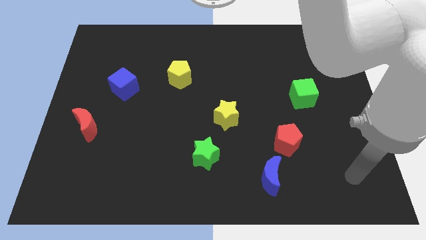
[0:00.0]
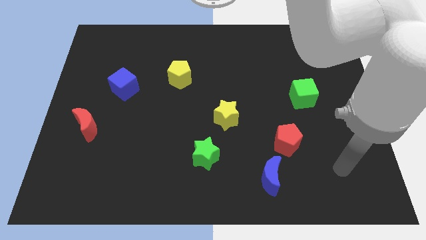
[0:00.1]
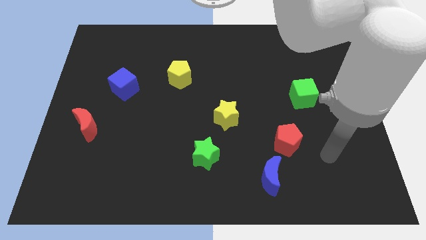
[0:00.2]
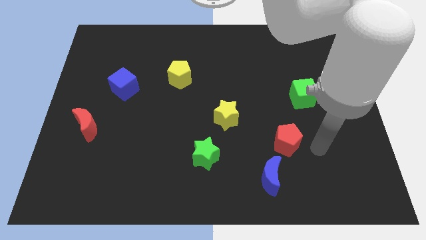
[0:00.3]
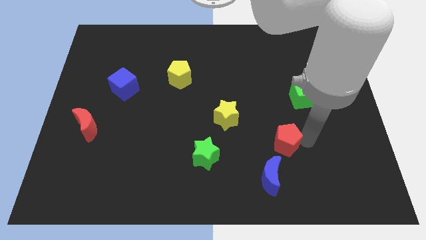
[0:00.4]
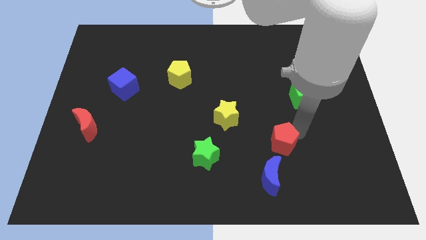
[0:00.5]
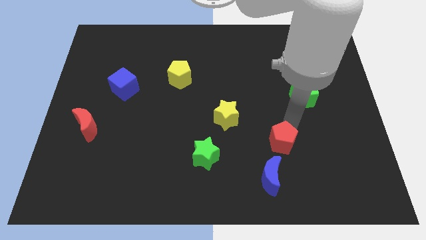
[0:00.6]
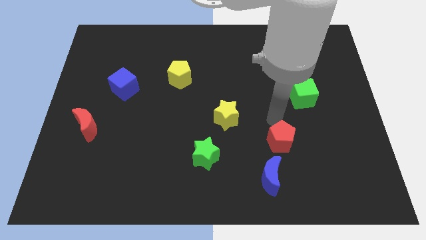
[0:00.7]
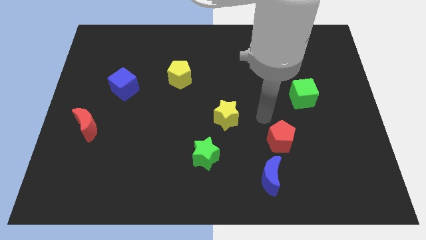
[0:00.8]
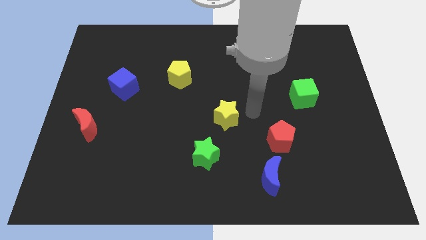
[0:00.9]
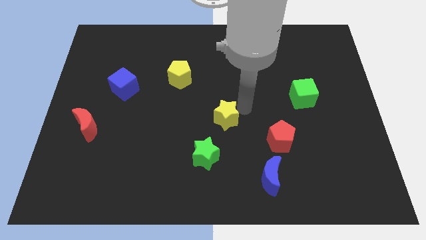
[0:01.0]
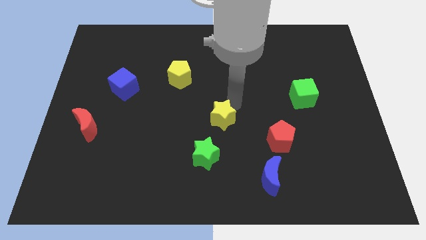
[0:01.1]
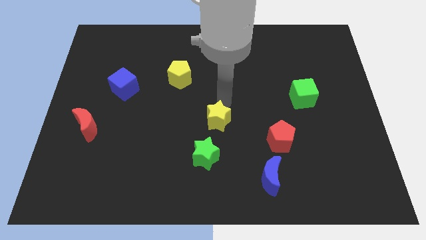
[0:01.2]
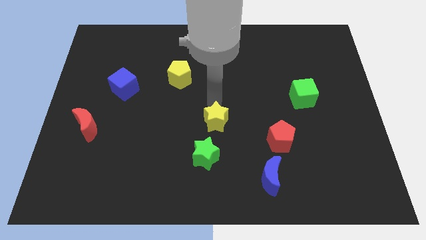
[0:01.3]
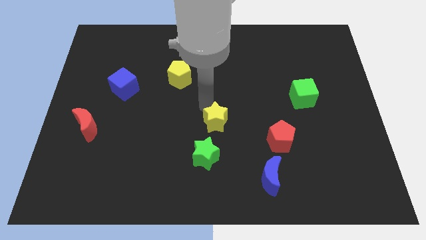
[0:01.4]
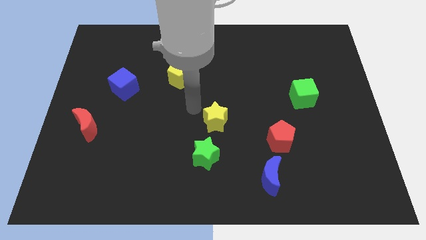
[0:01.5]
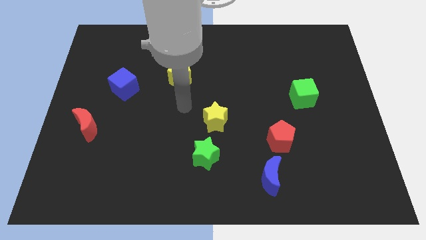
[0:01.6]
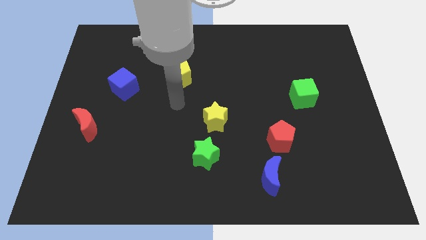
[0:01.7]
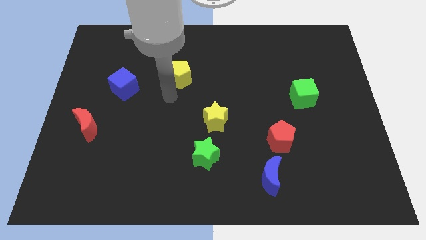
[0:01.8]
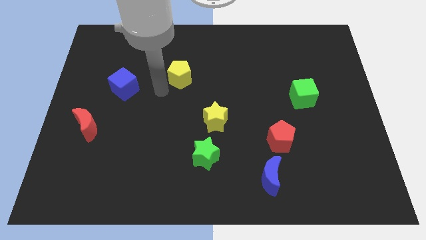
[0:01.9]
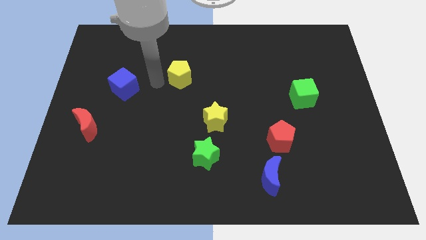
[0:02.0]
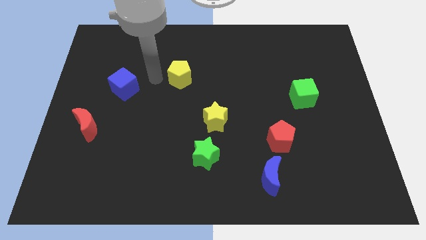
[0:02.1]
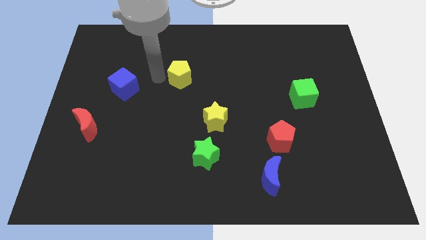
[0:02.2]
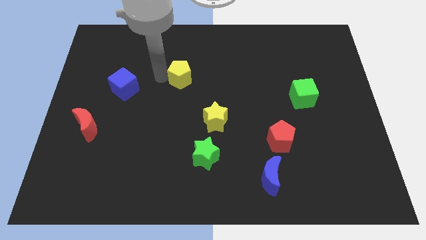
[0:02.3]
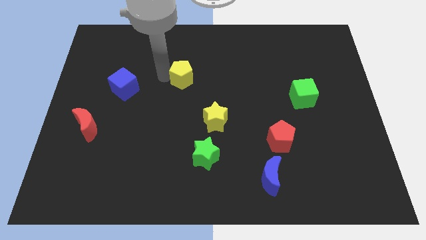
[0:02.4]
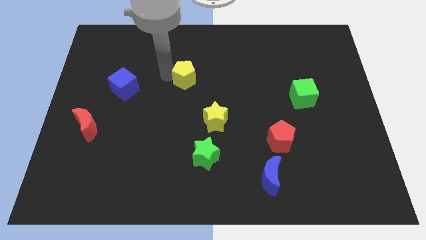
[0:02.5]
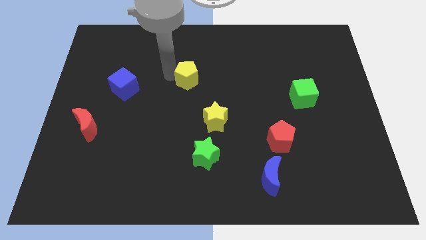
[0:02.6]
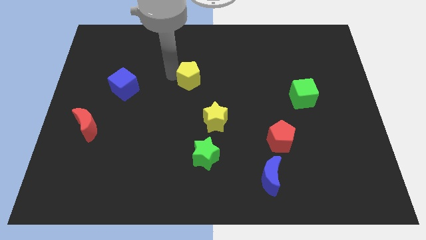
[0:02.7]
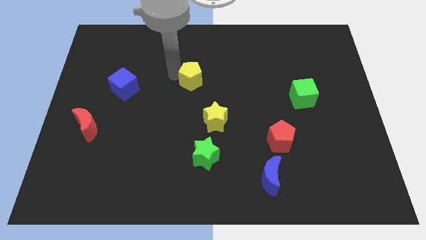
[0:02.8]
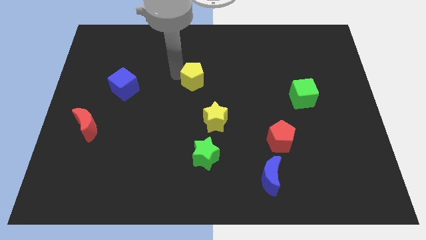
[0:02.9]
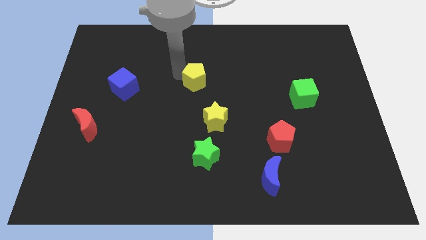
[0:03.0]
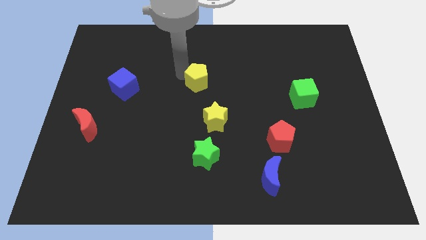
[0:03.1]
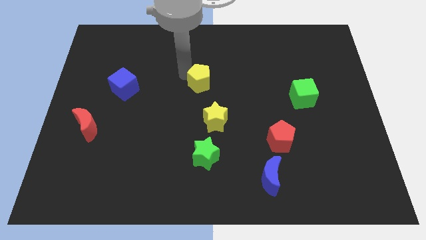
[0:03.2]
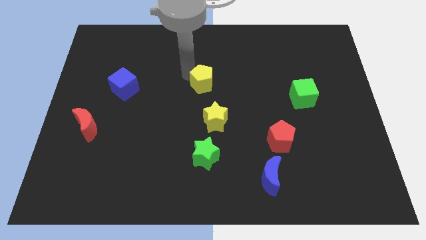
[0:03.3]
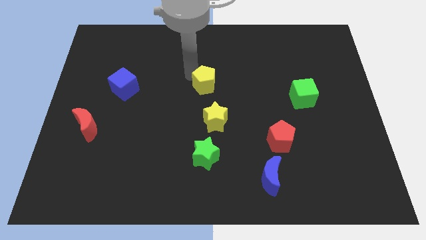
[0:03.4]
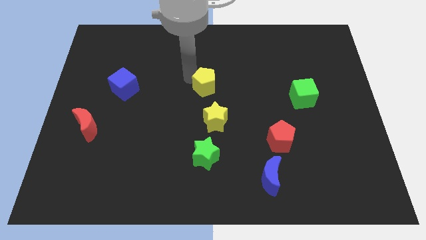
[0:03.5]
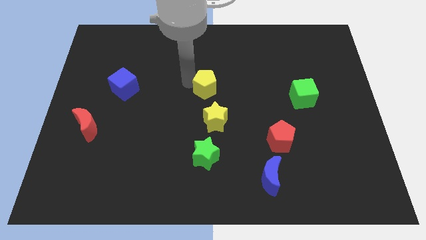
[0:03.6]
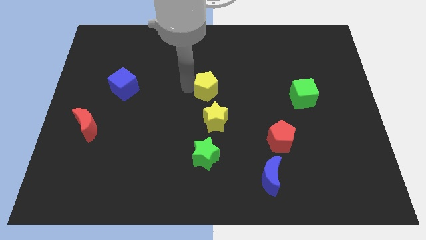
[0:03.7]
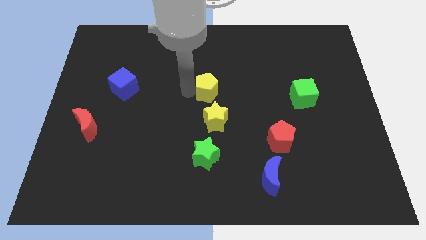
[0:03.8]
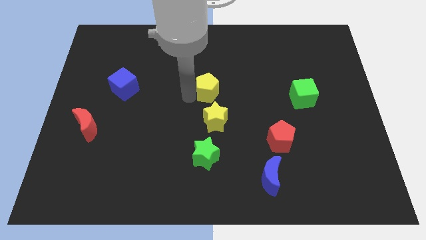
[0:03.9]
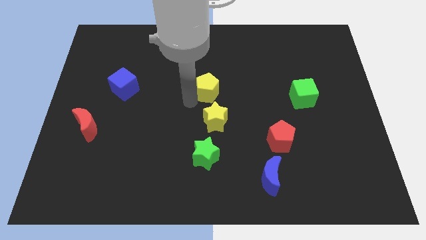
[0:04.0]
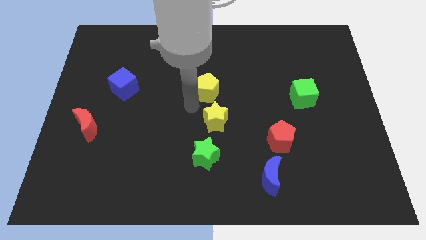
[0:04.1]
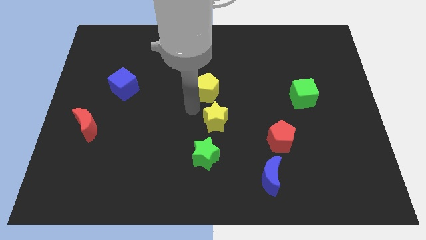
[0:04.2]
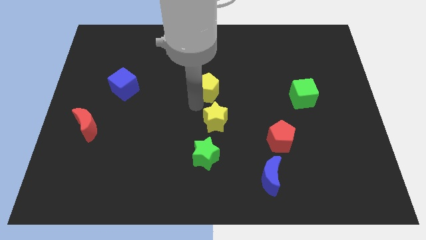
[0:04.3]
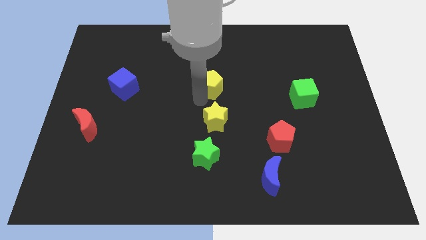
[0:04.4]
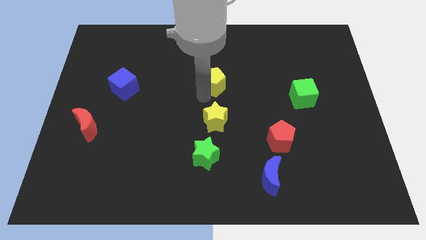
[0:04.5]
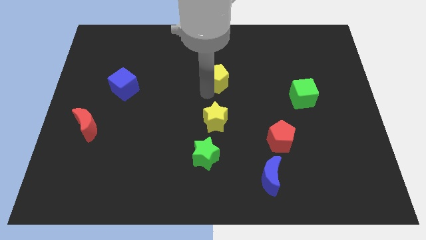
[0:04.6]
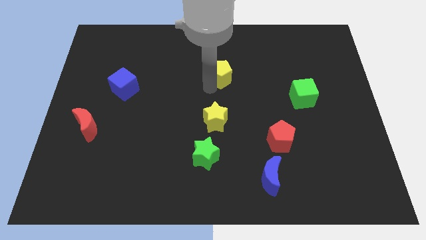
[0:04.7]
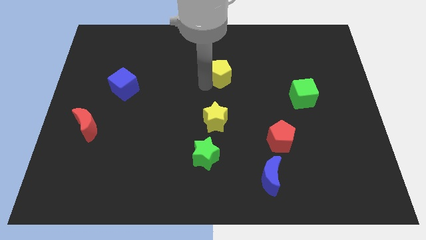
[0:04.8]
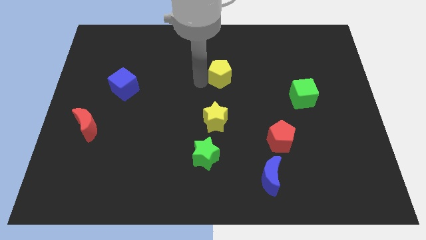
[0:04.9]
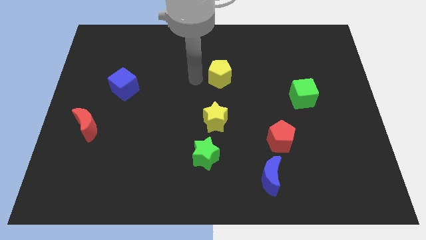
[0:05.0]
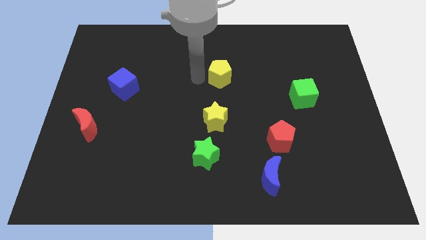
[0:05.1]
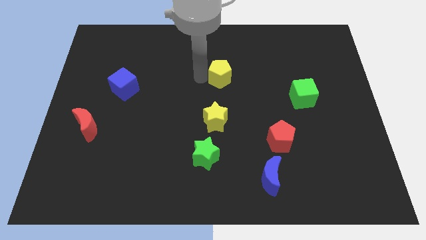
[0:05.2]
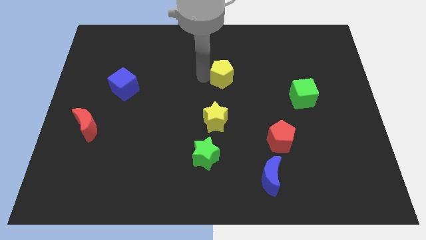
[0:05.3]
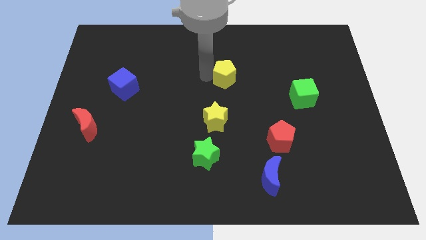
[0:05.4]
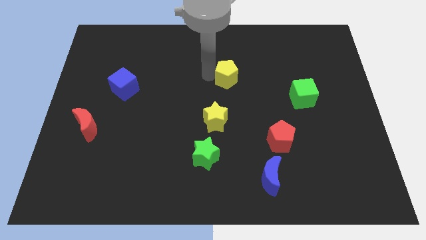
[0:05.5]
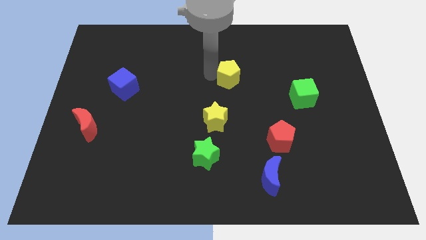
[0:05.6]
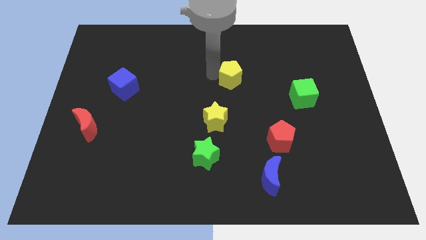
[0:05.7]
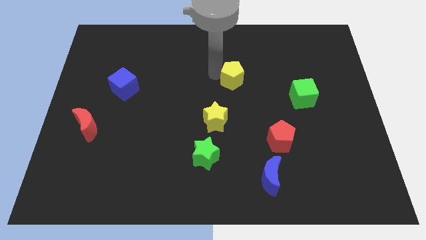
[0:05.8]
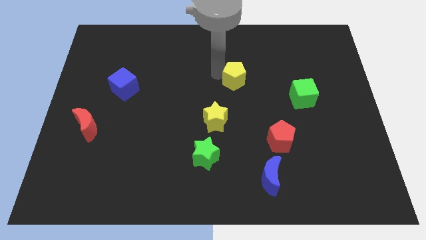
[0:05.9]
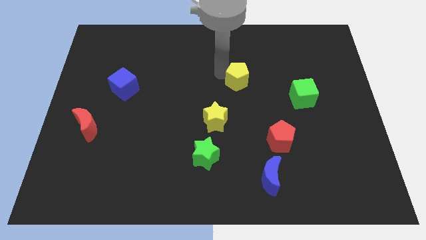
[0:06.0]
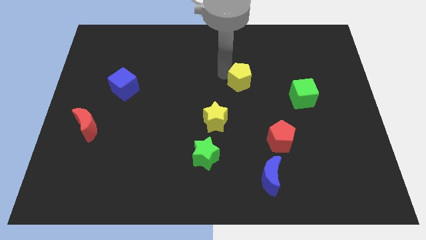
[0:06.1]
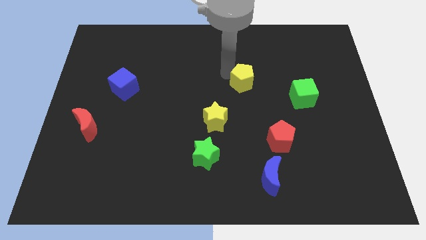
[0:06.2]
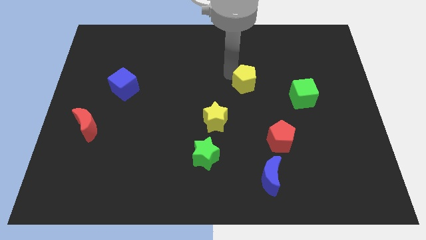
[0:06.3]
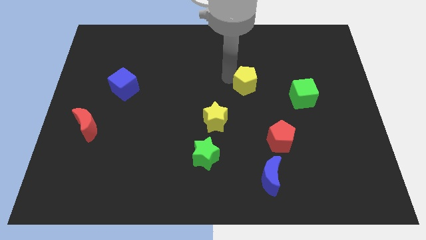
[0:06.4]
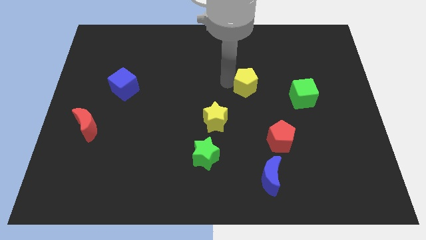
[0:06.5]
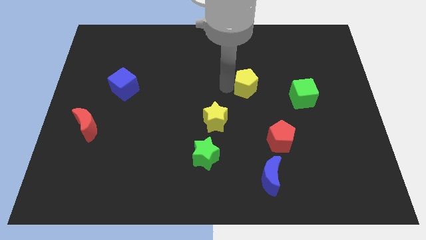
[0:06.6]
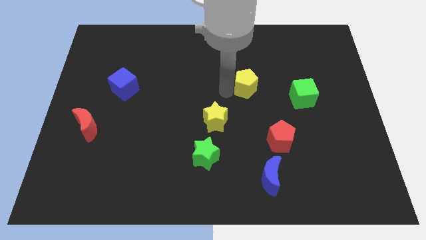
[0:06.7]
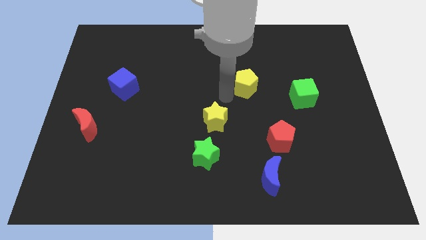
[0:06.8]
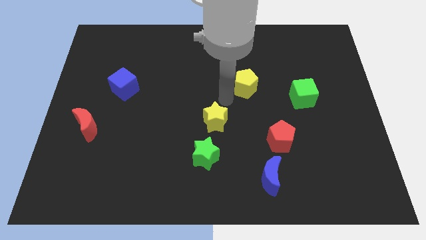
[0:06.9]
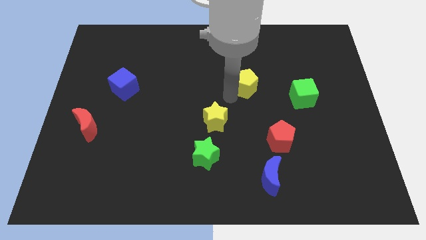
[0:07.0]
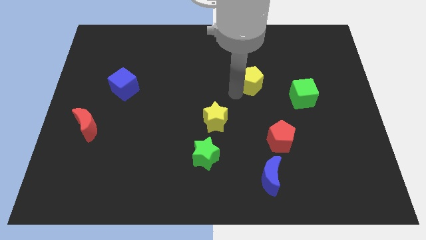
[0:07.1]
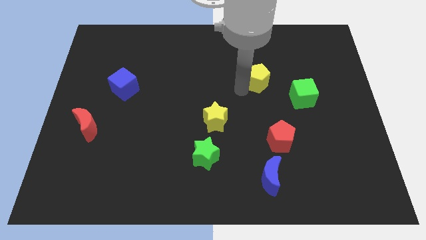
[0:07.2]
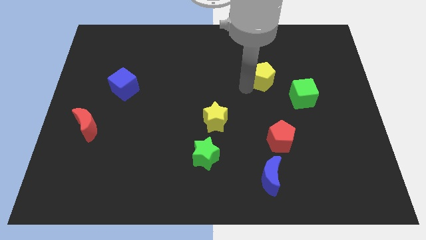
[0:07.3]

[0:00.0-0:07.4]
move the yellow pentagon right

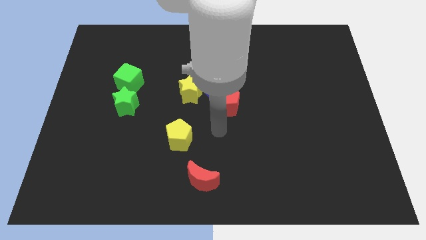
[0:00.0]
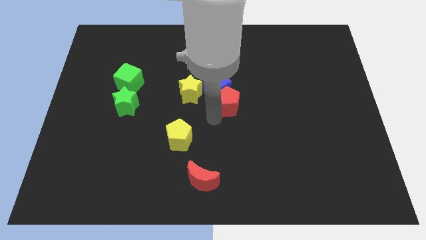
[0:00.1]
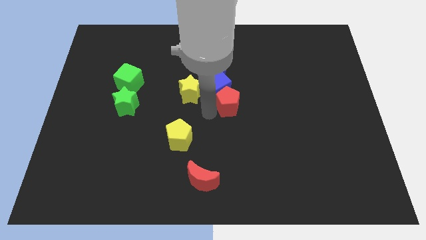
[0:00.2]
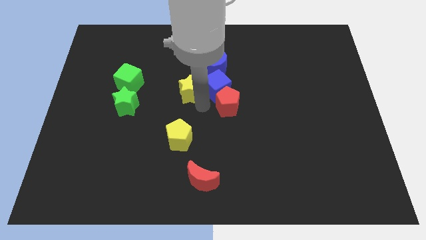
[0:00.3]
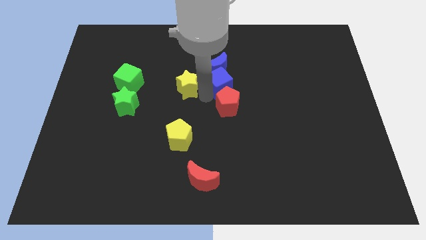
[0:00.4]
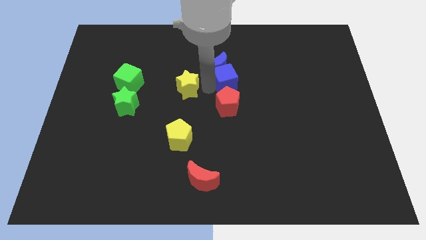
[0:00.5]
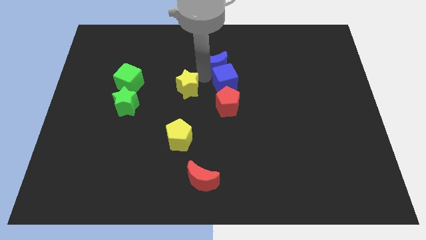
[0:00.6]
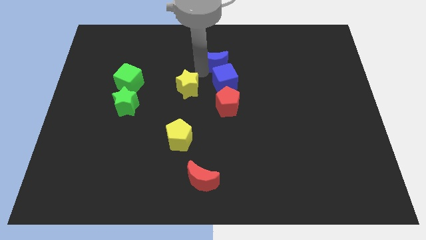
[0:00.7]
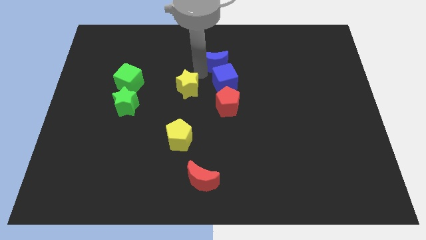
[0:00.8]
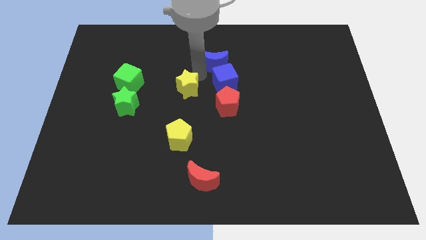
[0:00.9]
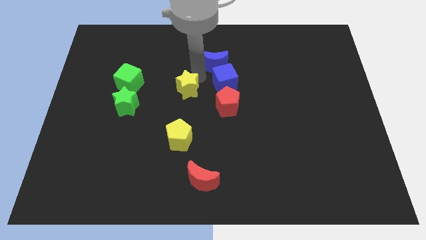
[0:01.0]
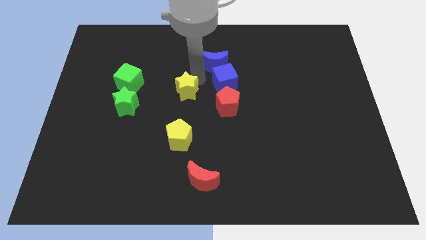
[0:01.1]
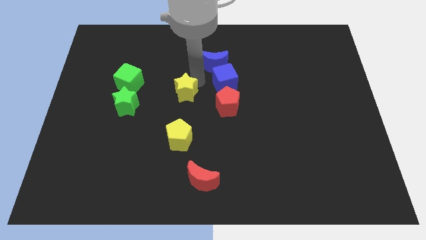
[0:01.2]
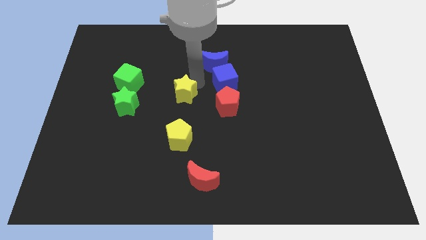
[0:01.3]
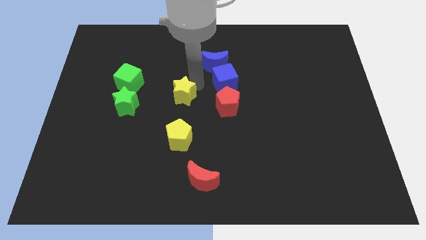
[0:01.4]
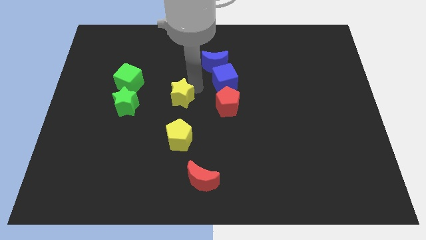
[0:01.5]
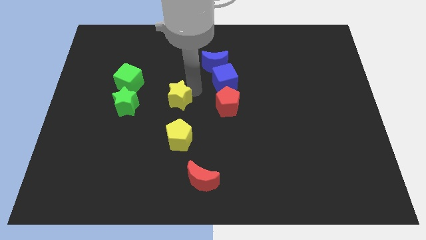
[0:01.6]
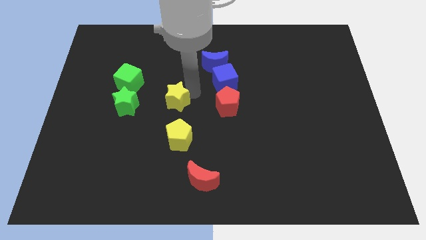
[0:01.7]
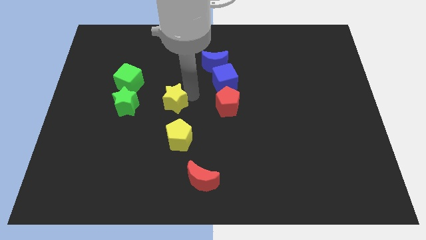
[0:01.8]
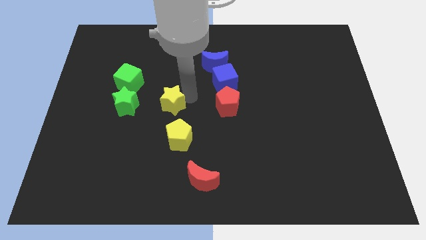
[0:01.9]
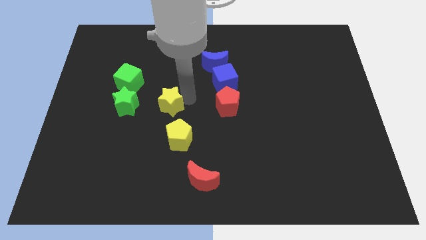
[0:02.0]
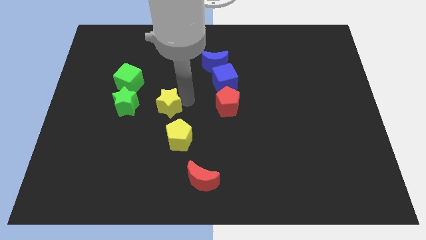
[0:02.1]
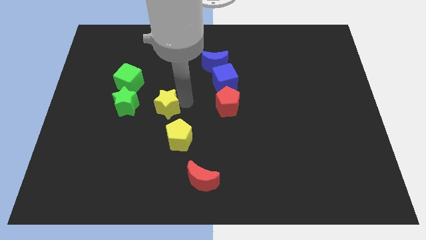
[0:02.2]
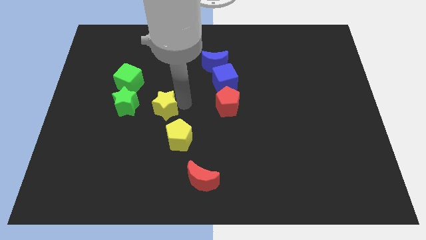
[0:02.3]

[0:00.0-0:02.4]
move the yellow star a little bit downwards and to the left
